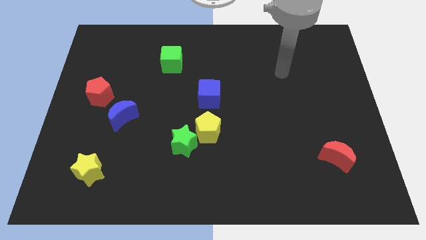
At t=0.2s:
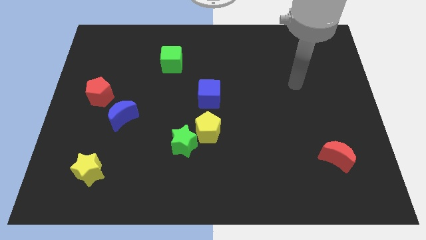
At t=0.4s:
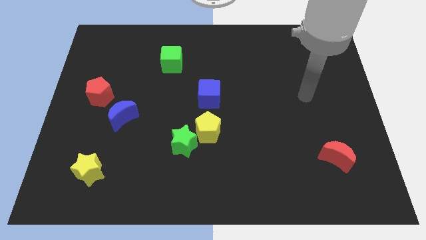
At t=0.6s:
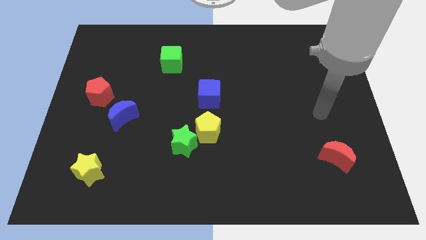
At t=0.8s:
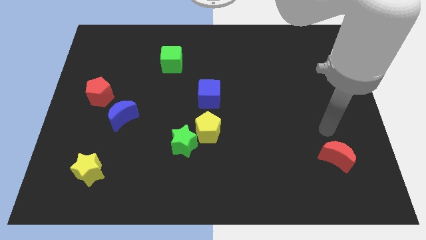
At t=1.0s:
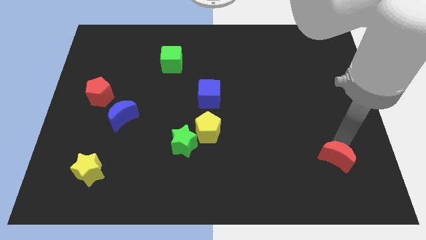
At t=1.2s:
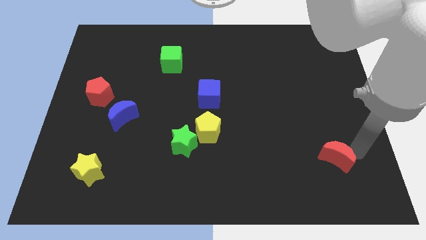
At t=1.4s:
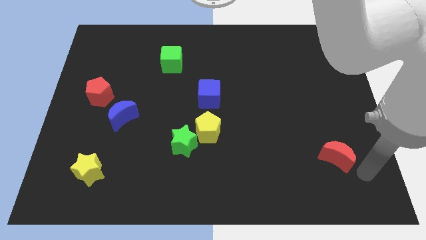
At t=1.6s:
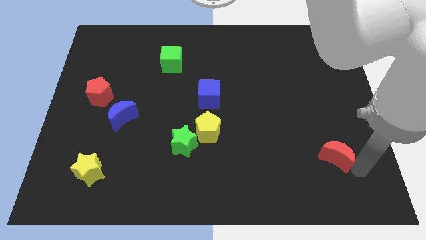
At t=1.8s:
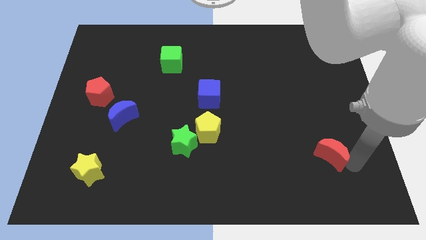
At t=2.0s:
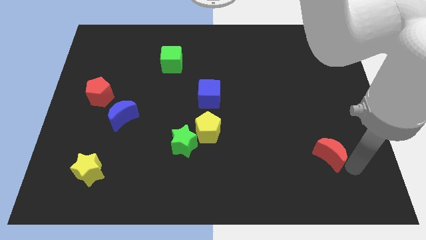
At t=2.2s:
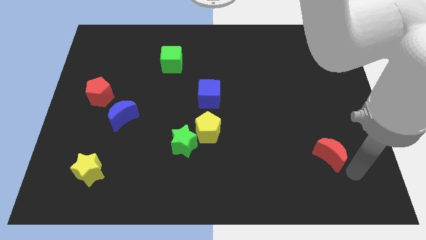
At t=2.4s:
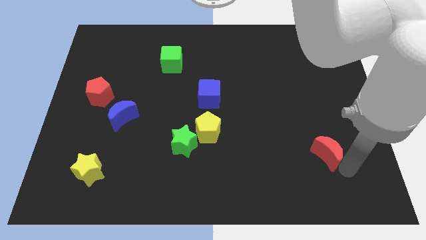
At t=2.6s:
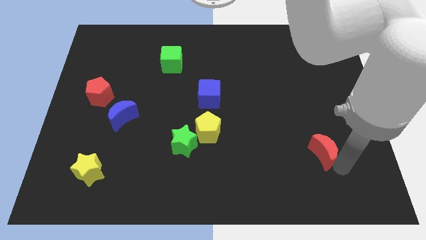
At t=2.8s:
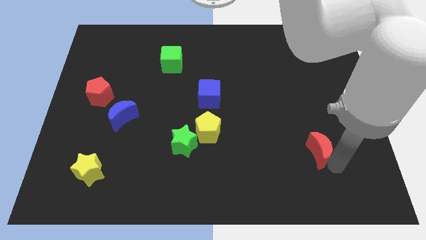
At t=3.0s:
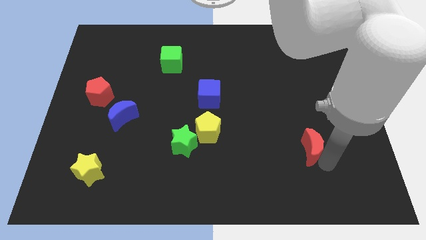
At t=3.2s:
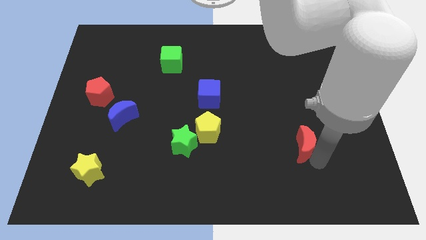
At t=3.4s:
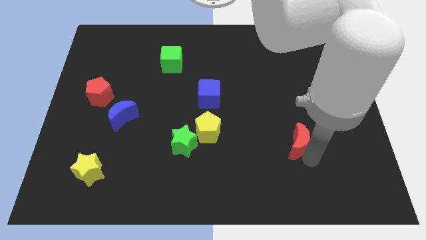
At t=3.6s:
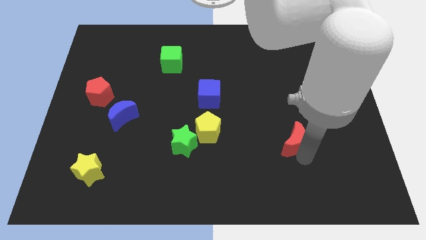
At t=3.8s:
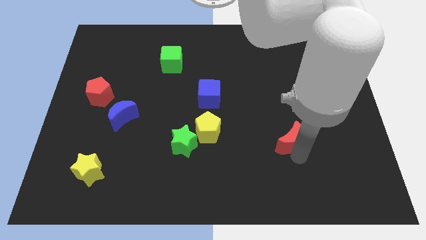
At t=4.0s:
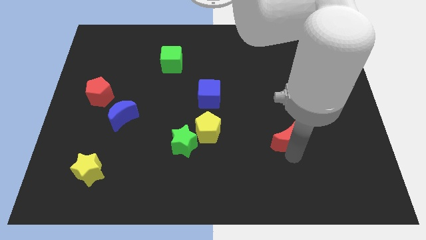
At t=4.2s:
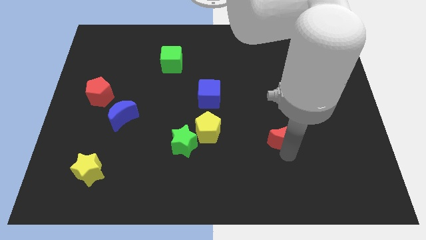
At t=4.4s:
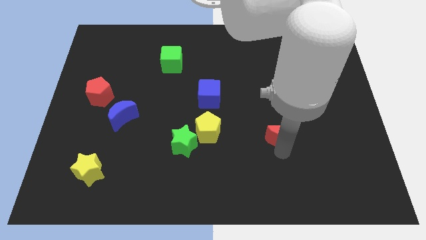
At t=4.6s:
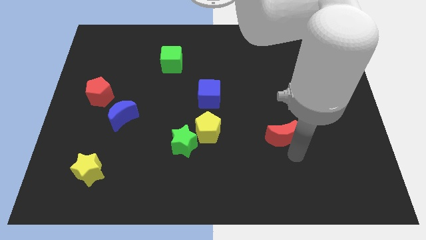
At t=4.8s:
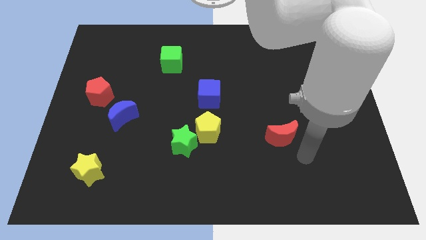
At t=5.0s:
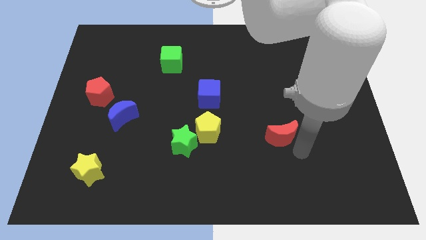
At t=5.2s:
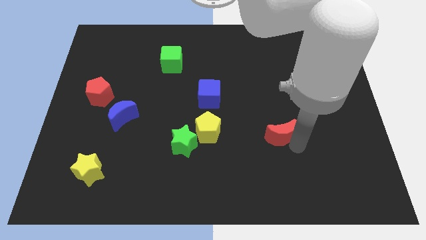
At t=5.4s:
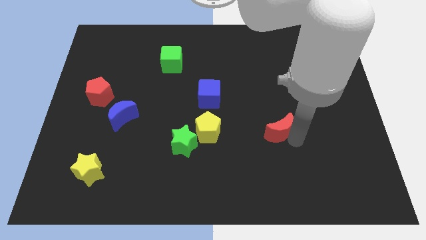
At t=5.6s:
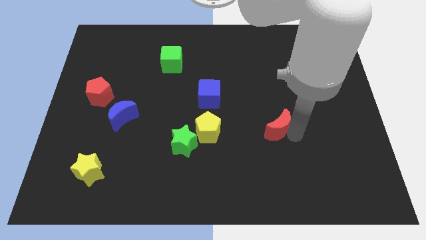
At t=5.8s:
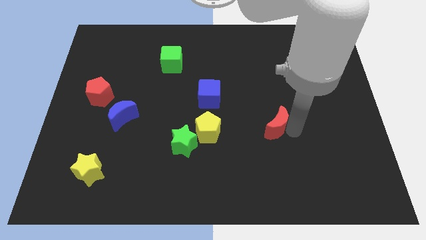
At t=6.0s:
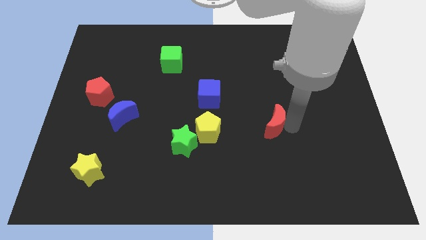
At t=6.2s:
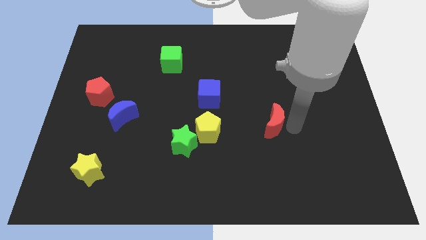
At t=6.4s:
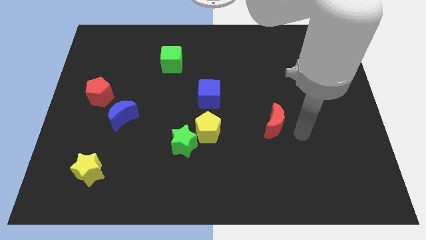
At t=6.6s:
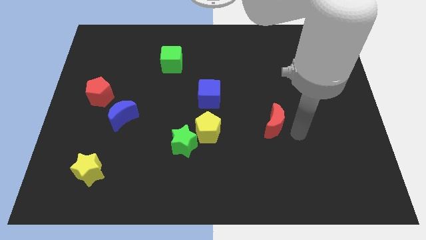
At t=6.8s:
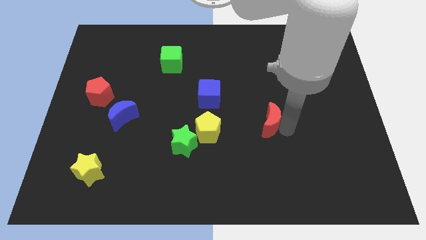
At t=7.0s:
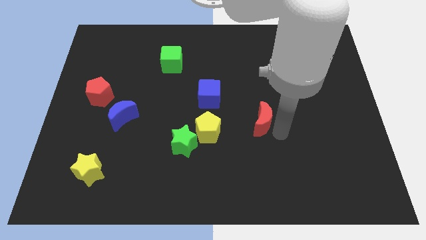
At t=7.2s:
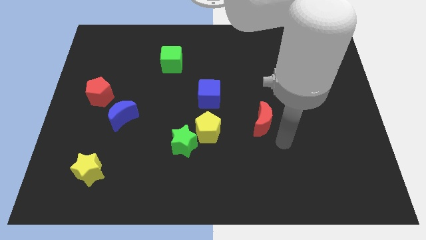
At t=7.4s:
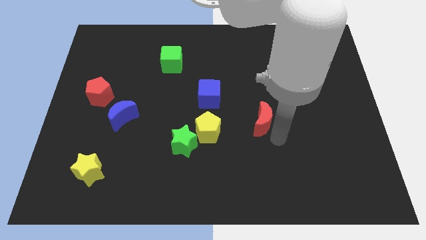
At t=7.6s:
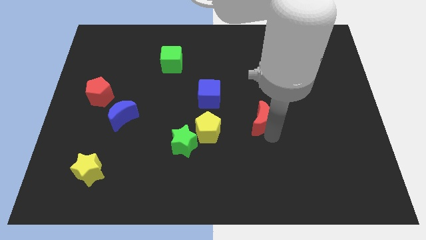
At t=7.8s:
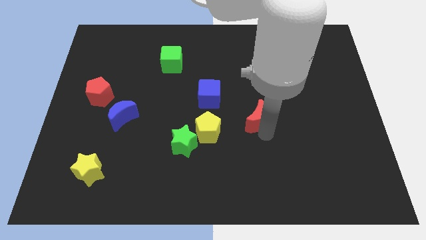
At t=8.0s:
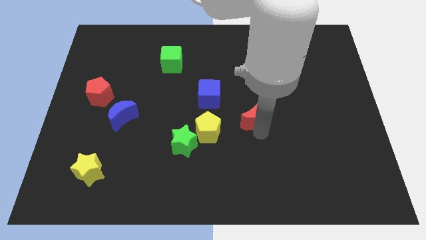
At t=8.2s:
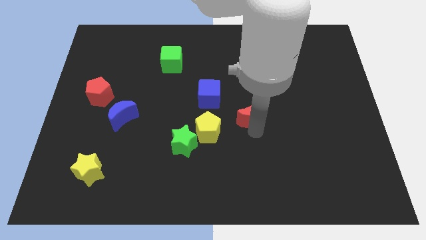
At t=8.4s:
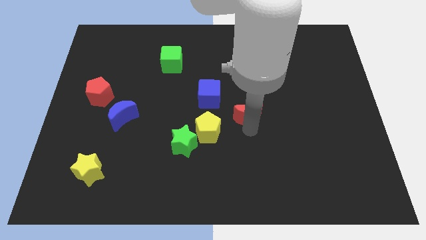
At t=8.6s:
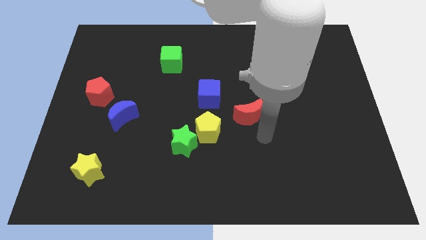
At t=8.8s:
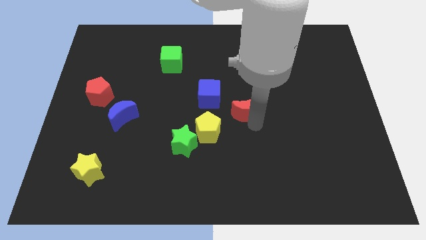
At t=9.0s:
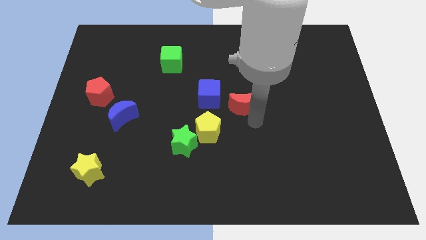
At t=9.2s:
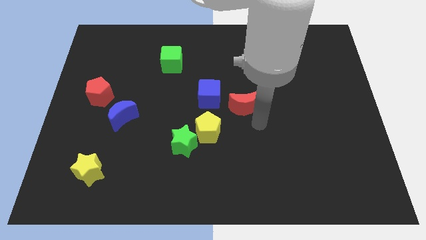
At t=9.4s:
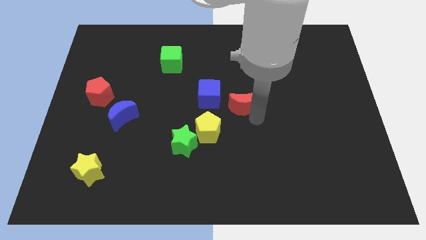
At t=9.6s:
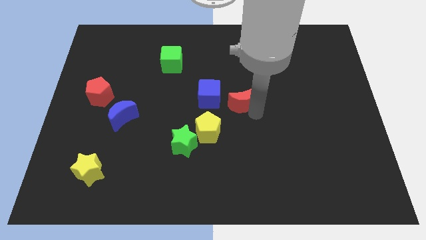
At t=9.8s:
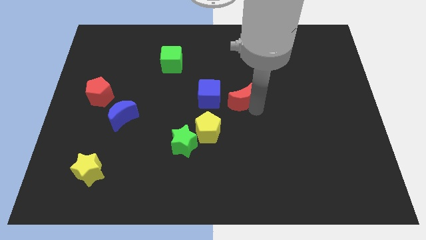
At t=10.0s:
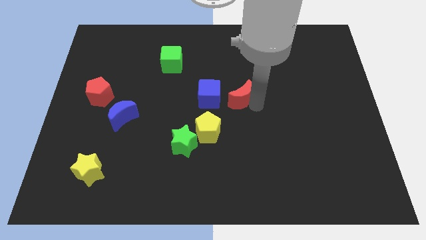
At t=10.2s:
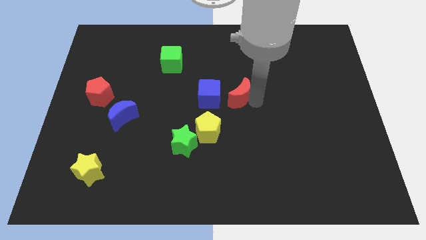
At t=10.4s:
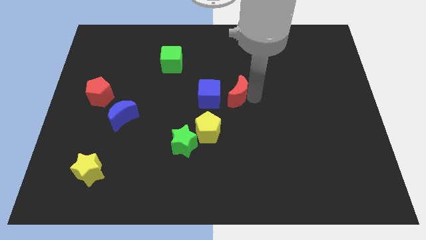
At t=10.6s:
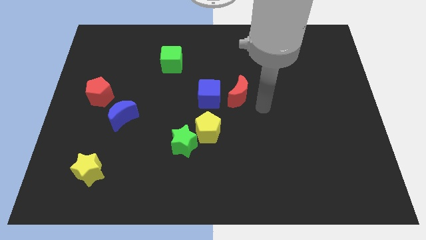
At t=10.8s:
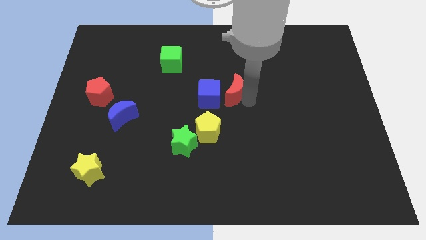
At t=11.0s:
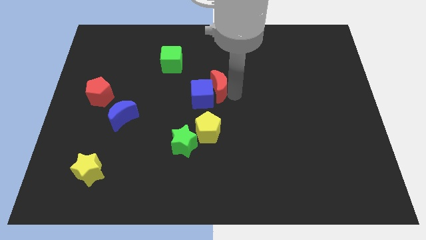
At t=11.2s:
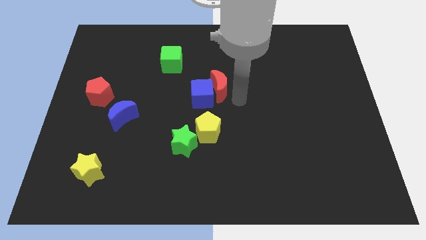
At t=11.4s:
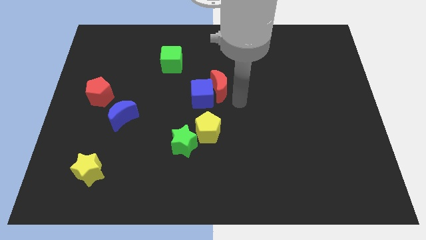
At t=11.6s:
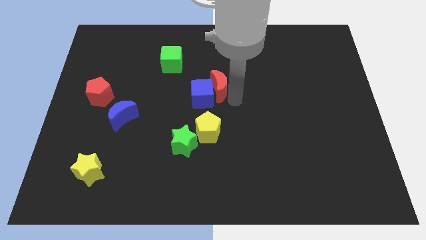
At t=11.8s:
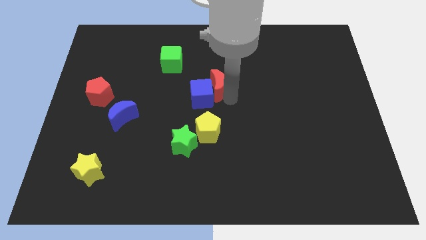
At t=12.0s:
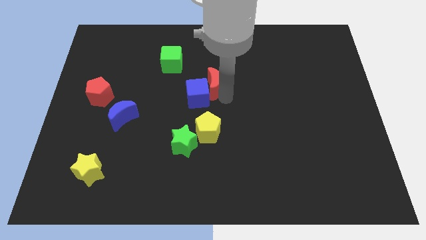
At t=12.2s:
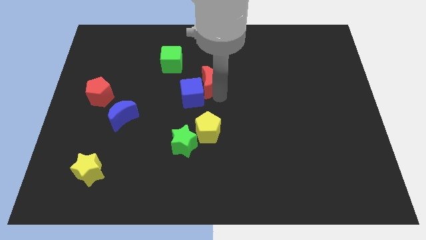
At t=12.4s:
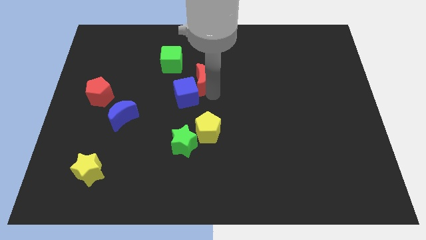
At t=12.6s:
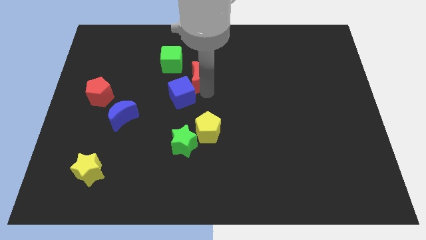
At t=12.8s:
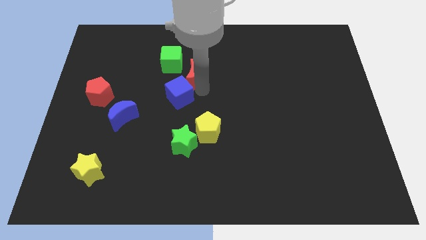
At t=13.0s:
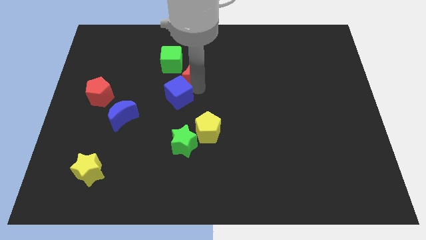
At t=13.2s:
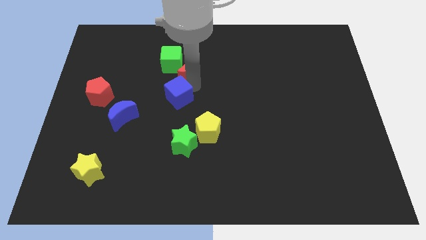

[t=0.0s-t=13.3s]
push the red moon next to the green cube

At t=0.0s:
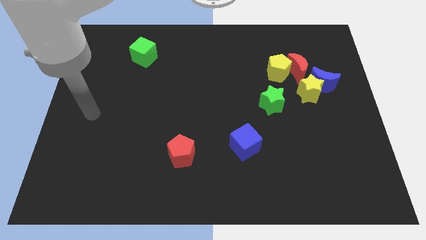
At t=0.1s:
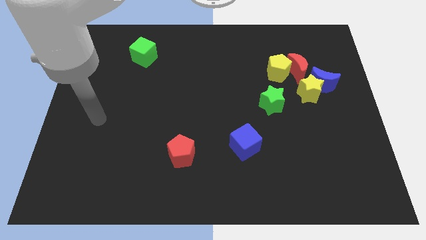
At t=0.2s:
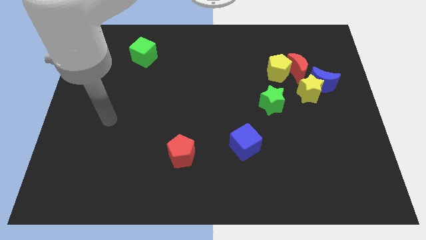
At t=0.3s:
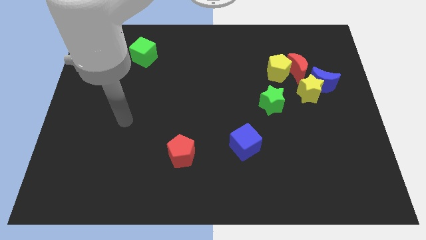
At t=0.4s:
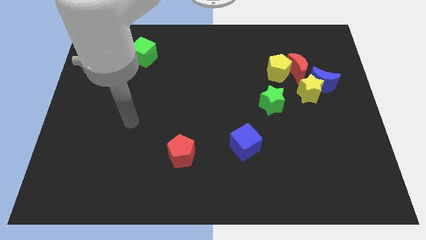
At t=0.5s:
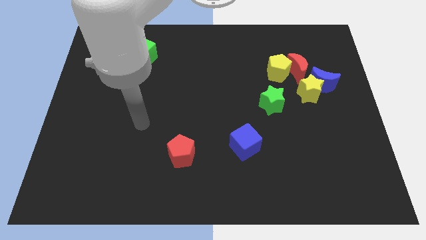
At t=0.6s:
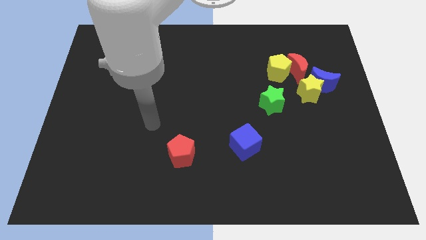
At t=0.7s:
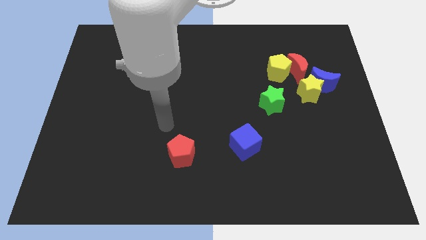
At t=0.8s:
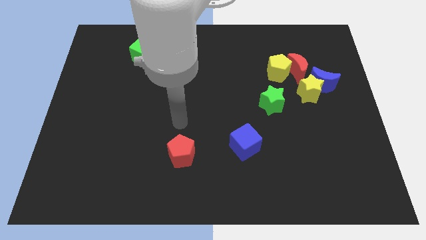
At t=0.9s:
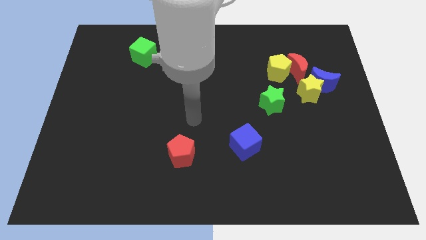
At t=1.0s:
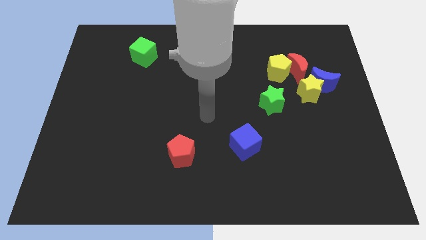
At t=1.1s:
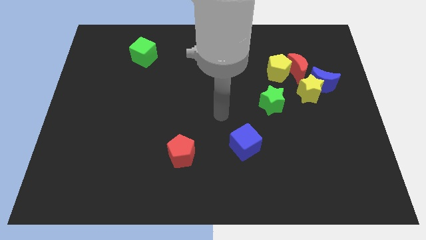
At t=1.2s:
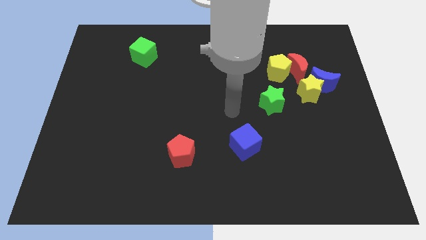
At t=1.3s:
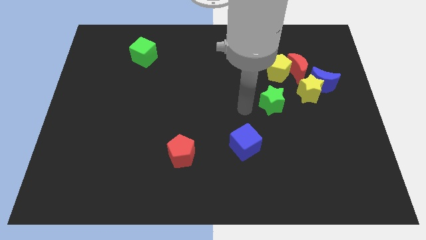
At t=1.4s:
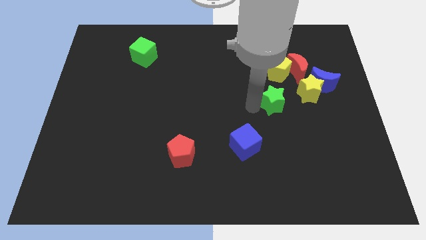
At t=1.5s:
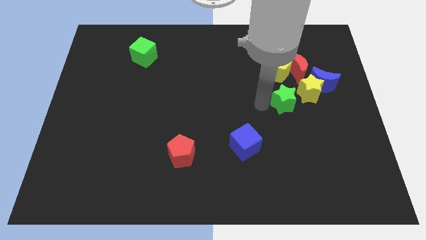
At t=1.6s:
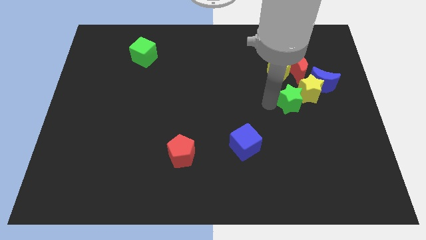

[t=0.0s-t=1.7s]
push the green star towards the yellow star
